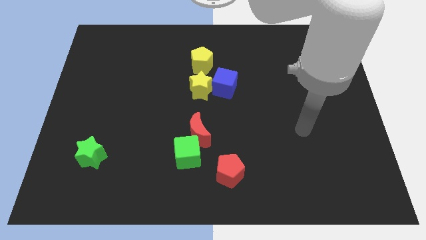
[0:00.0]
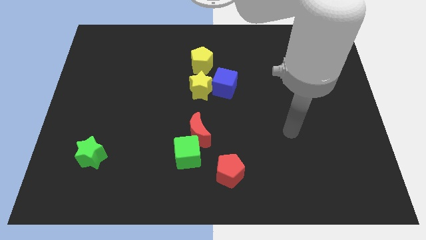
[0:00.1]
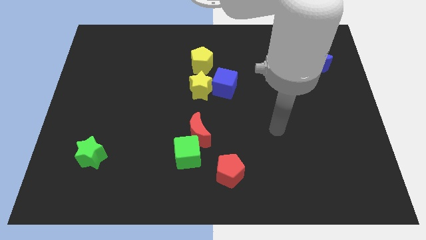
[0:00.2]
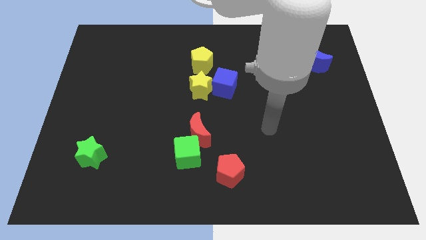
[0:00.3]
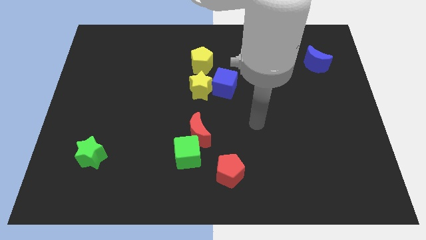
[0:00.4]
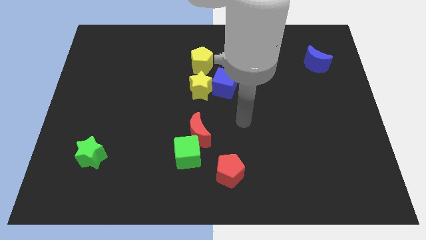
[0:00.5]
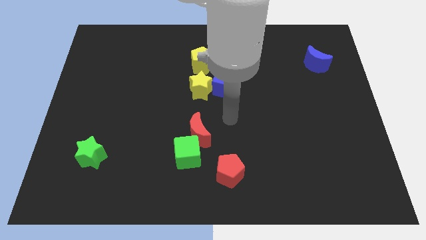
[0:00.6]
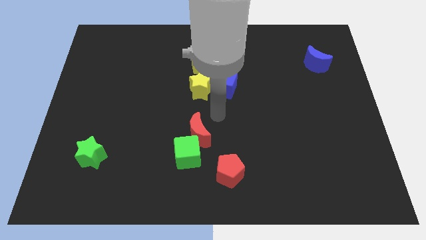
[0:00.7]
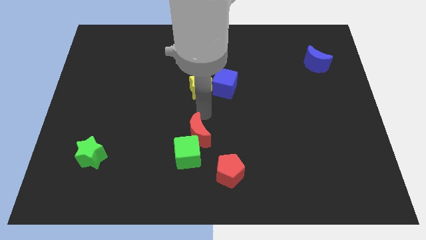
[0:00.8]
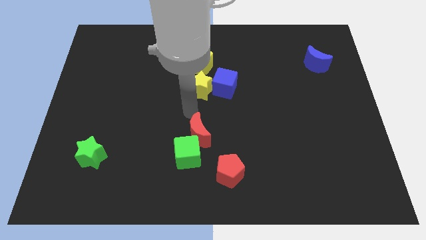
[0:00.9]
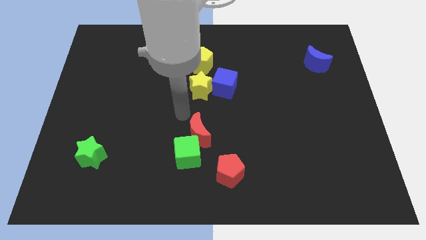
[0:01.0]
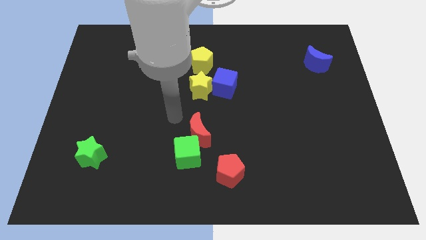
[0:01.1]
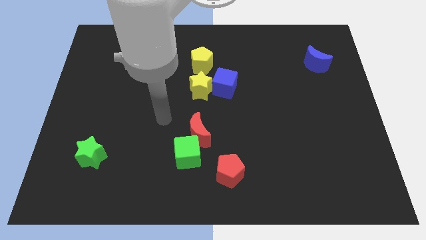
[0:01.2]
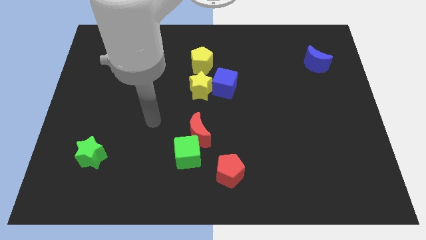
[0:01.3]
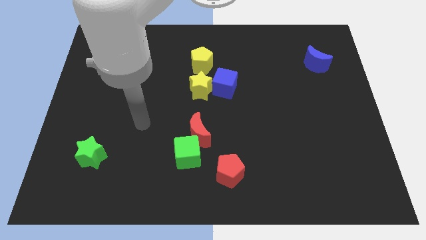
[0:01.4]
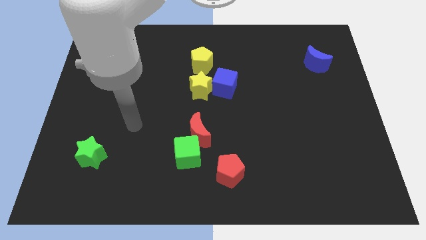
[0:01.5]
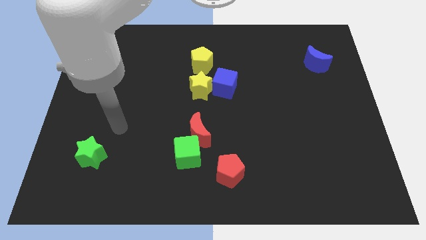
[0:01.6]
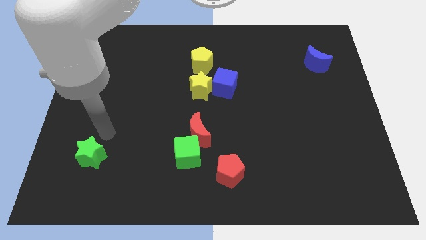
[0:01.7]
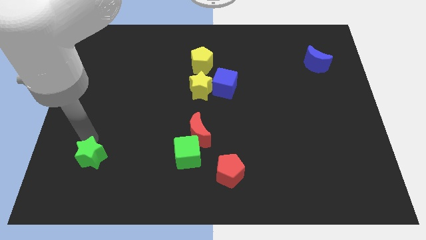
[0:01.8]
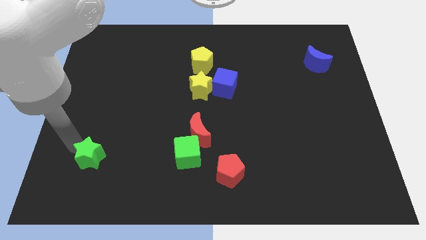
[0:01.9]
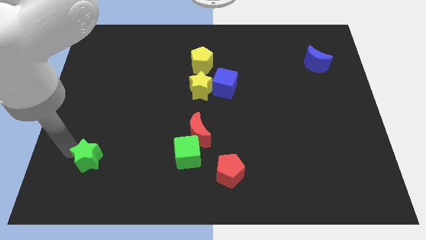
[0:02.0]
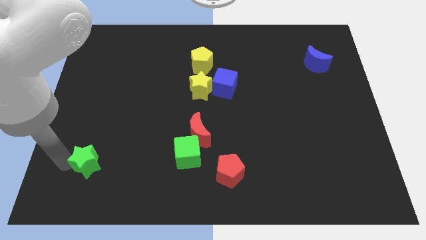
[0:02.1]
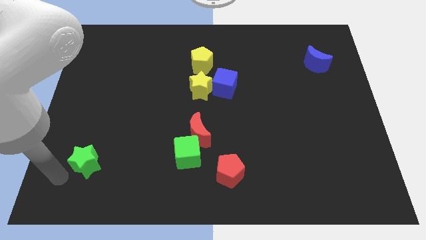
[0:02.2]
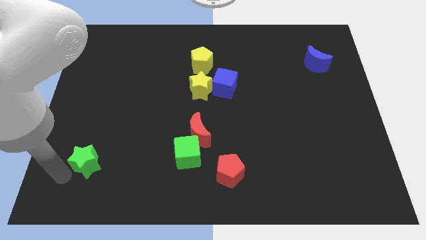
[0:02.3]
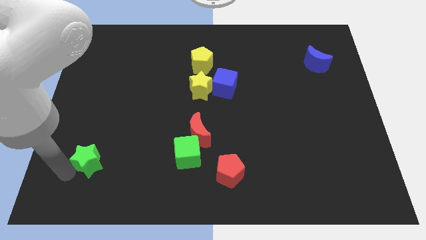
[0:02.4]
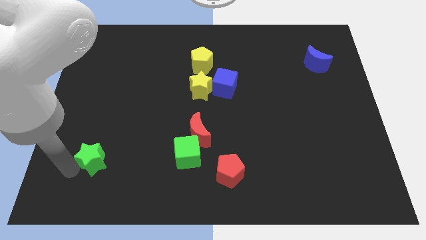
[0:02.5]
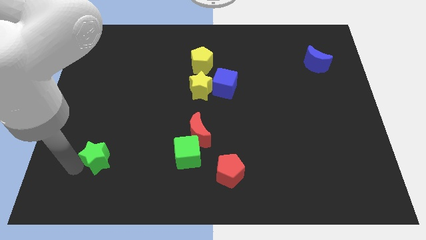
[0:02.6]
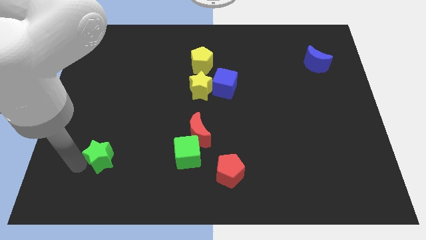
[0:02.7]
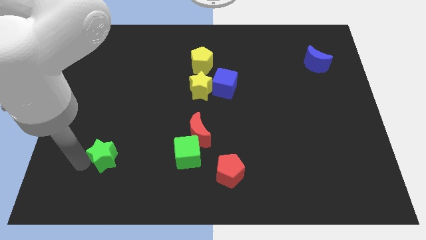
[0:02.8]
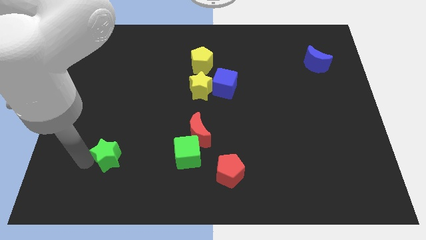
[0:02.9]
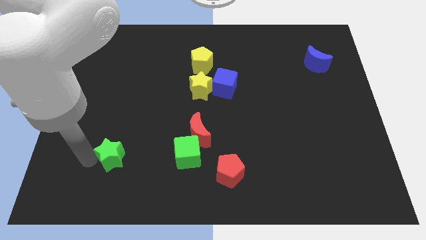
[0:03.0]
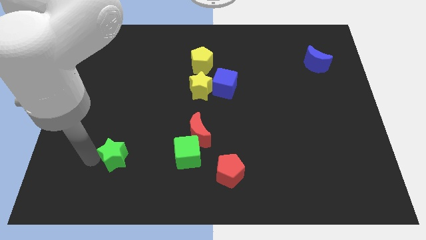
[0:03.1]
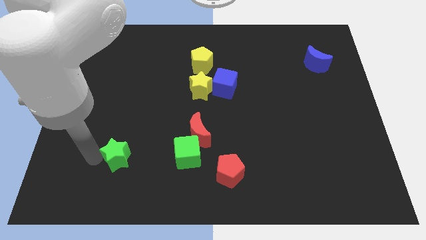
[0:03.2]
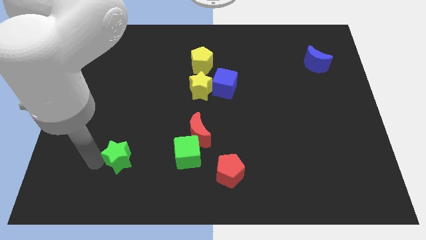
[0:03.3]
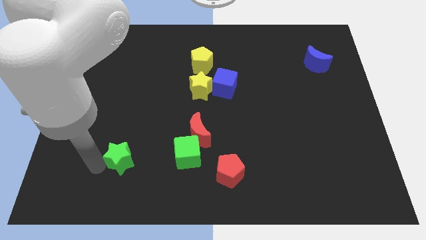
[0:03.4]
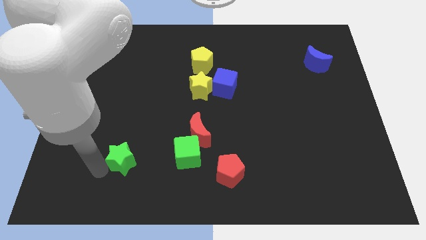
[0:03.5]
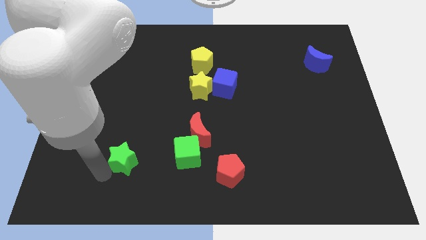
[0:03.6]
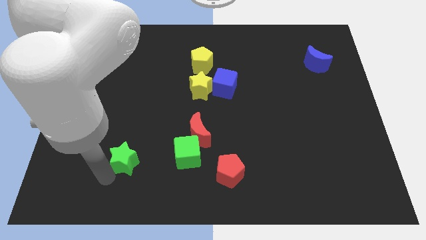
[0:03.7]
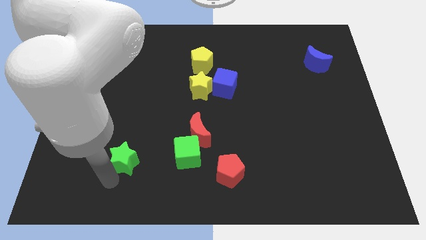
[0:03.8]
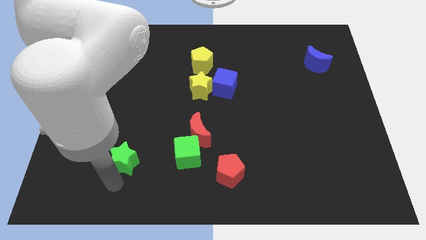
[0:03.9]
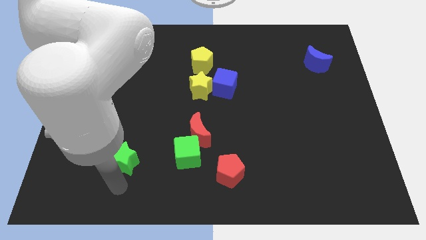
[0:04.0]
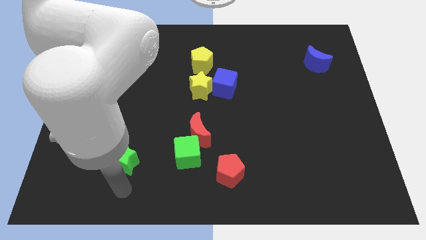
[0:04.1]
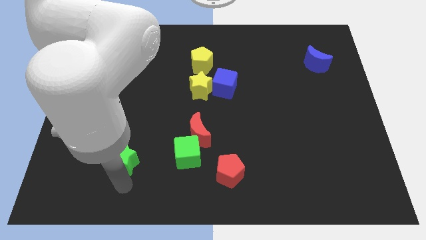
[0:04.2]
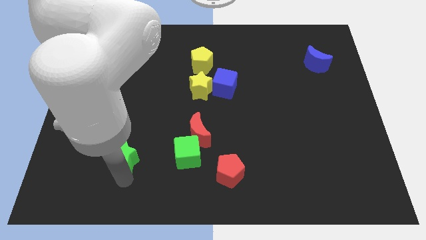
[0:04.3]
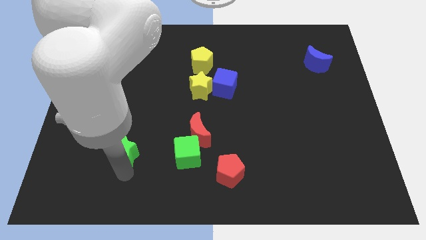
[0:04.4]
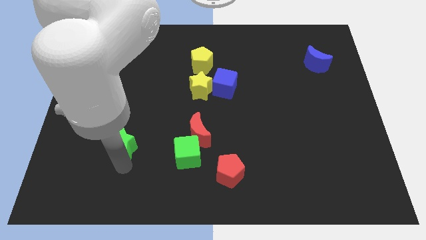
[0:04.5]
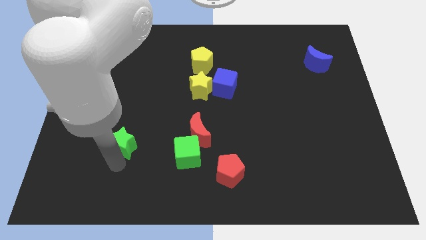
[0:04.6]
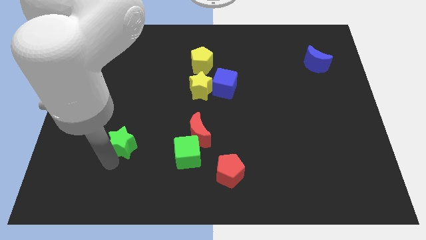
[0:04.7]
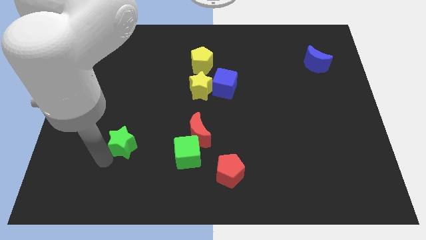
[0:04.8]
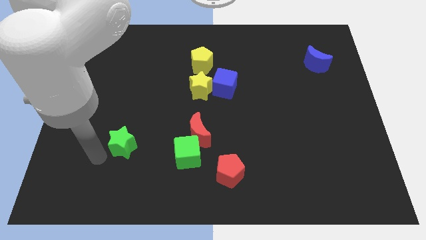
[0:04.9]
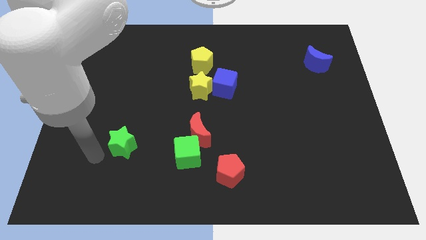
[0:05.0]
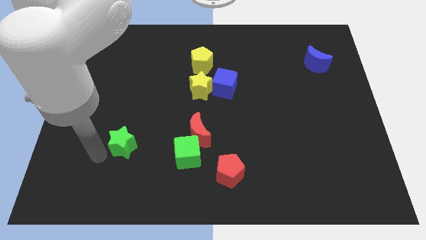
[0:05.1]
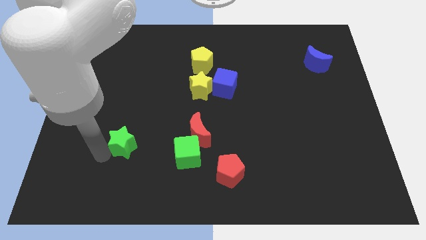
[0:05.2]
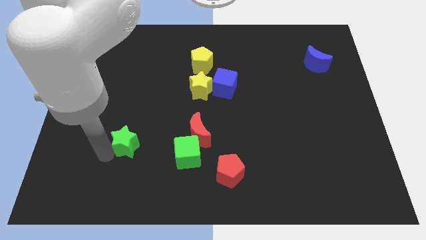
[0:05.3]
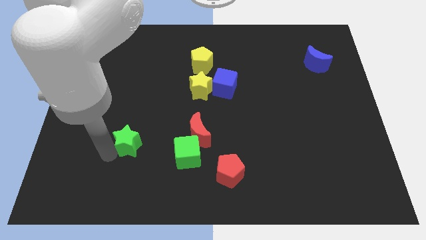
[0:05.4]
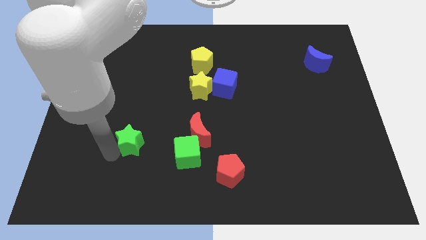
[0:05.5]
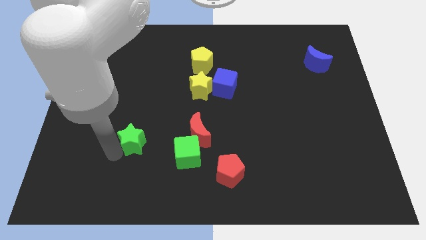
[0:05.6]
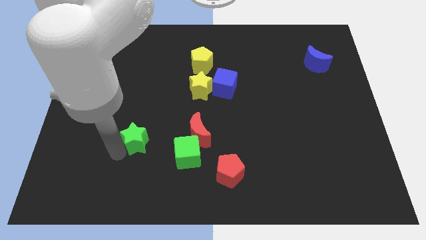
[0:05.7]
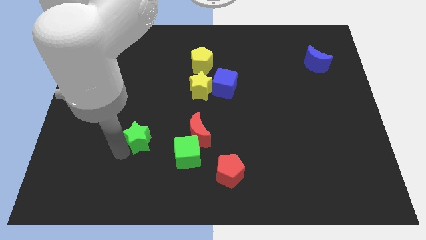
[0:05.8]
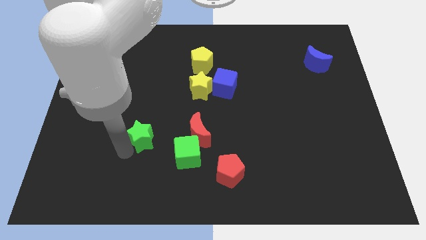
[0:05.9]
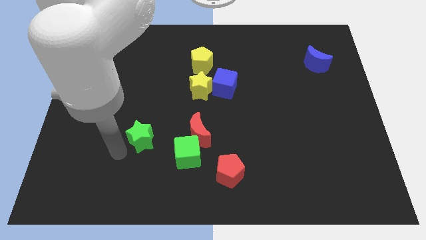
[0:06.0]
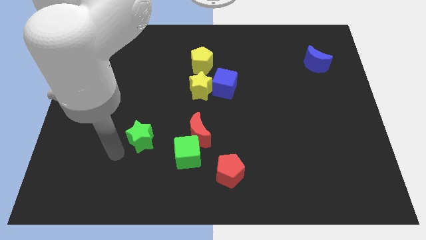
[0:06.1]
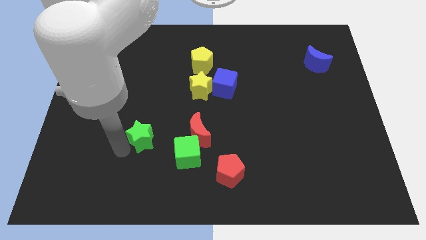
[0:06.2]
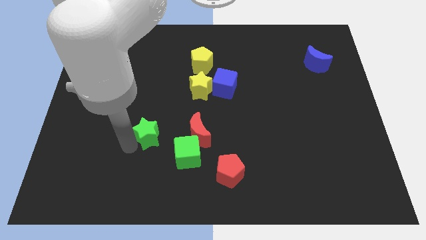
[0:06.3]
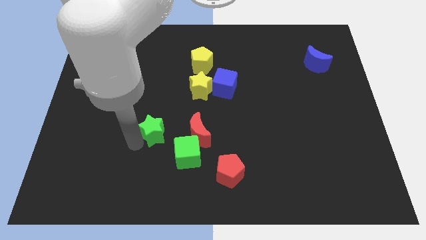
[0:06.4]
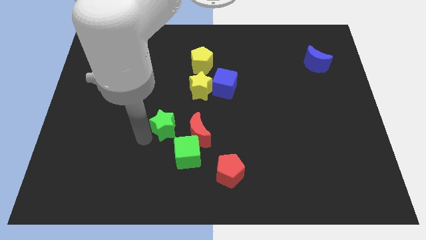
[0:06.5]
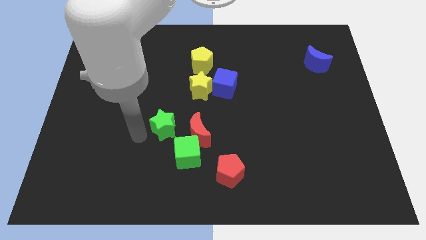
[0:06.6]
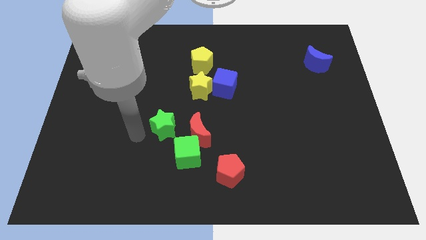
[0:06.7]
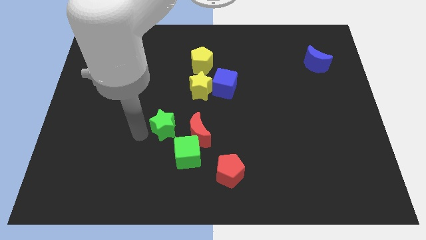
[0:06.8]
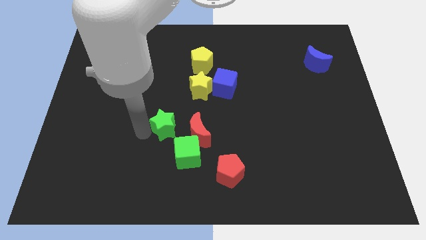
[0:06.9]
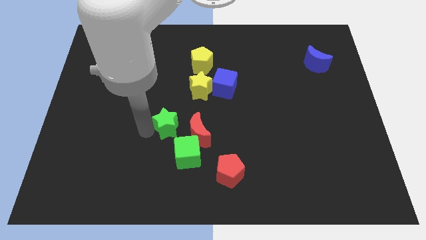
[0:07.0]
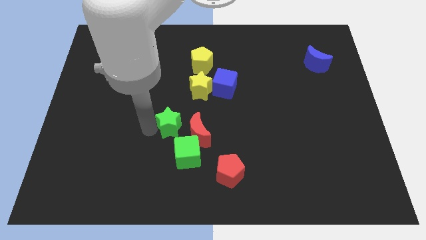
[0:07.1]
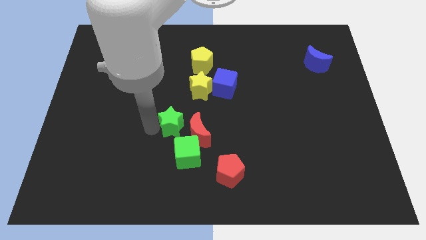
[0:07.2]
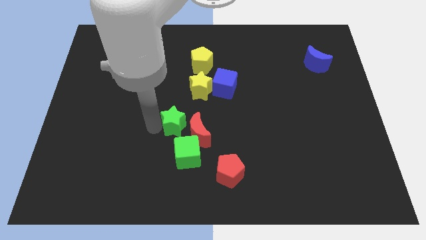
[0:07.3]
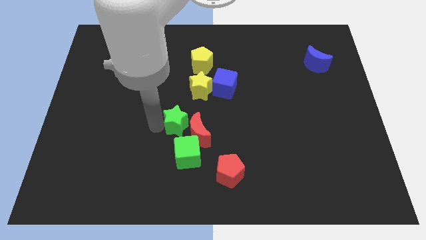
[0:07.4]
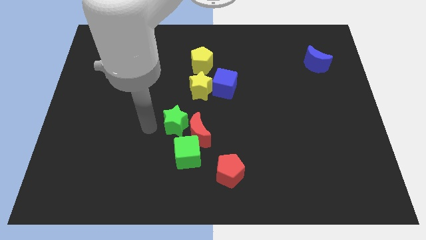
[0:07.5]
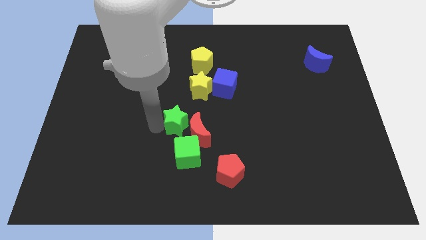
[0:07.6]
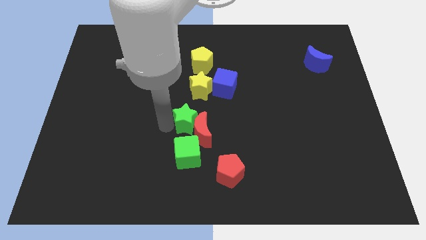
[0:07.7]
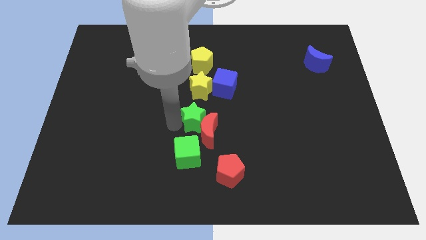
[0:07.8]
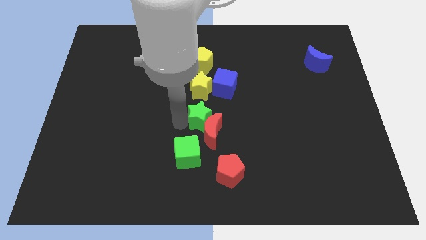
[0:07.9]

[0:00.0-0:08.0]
put the green star to the top right of the green cube
